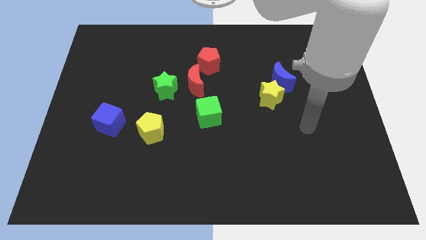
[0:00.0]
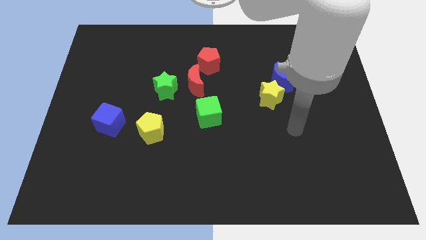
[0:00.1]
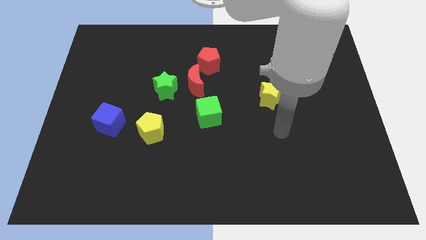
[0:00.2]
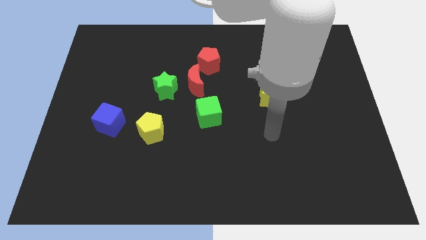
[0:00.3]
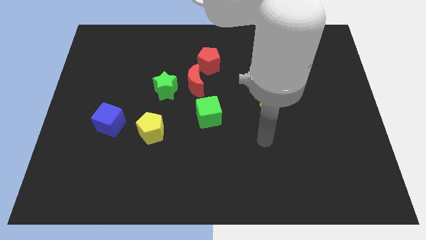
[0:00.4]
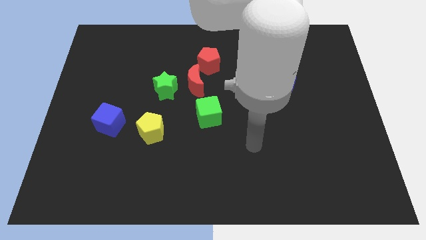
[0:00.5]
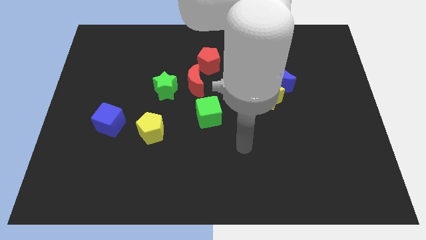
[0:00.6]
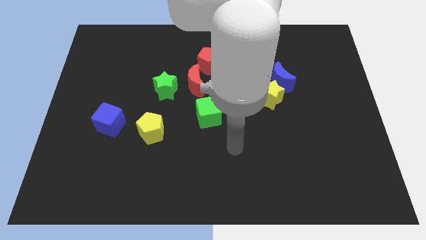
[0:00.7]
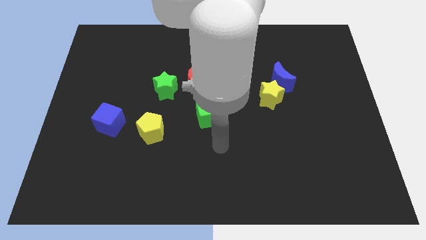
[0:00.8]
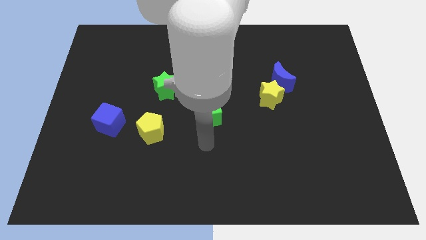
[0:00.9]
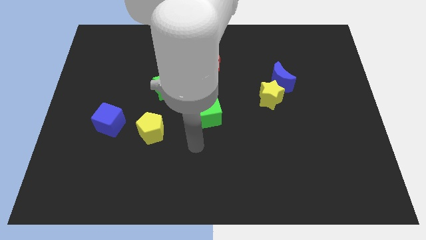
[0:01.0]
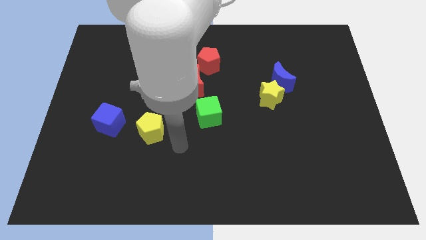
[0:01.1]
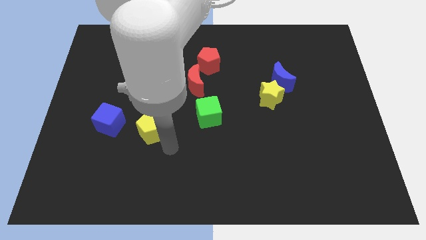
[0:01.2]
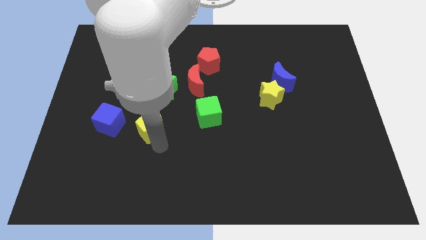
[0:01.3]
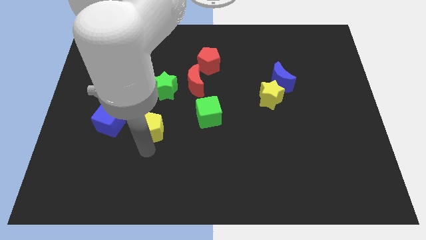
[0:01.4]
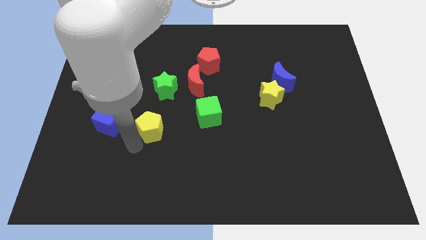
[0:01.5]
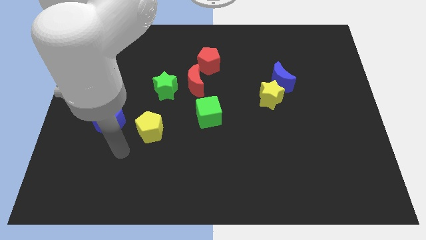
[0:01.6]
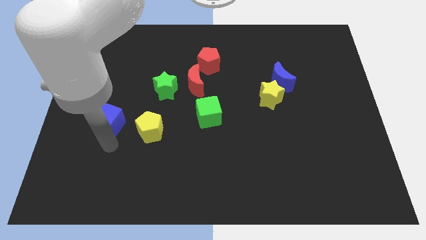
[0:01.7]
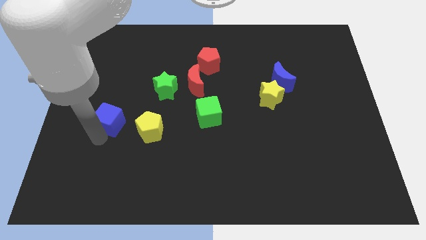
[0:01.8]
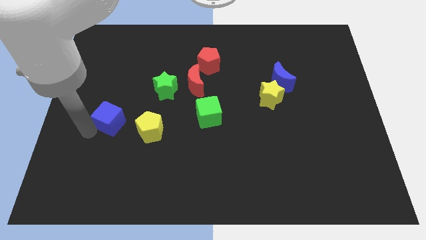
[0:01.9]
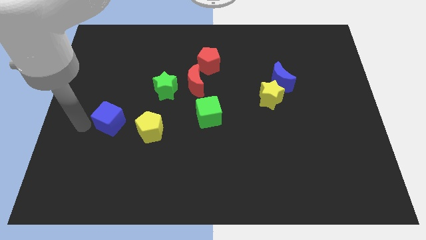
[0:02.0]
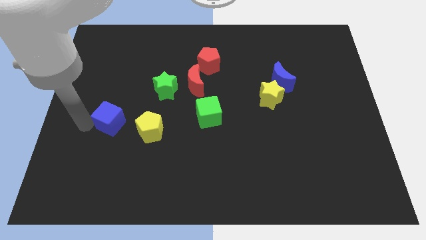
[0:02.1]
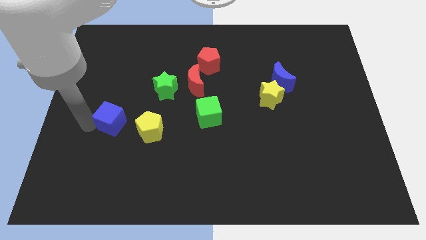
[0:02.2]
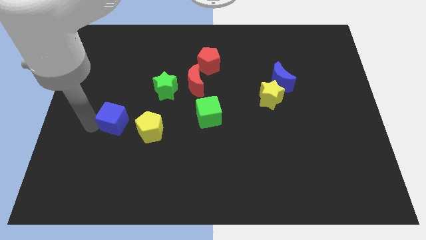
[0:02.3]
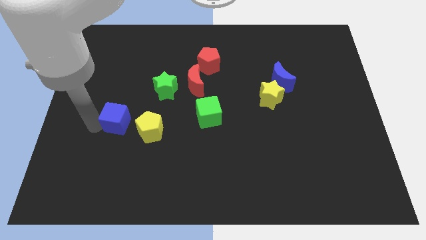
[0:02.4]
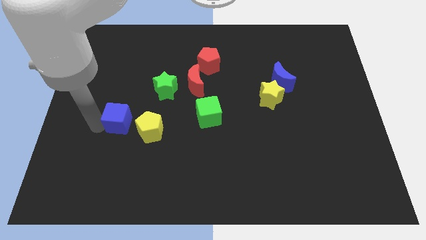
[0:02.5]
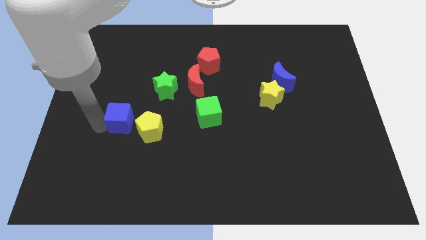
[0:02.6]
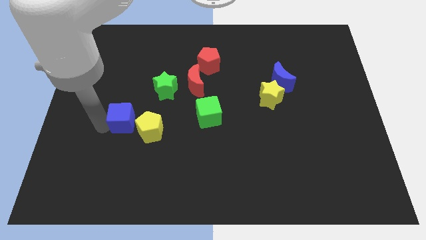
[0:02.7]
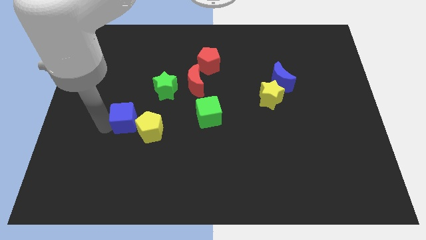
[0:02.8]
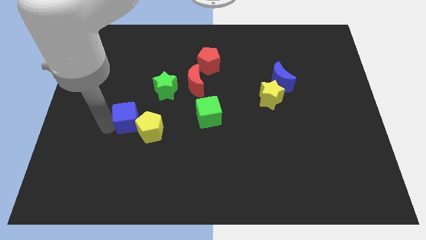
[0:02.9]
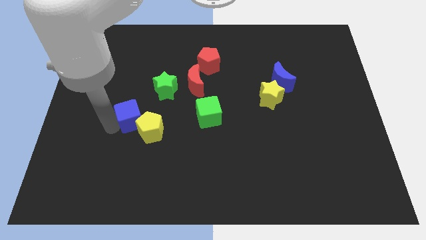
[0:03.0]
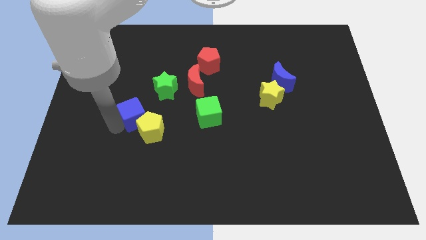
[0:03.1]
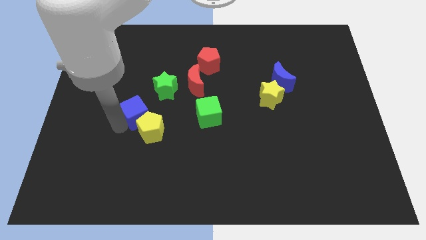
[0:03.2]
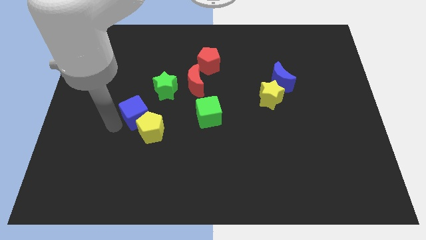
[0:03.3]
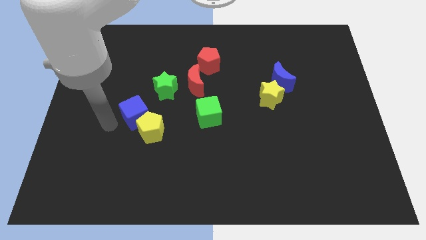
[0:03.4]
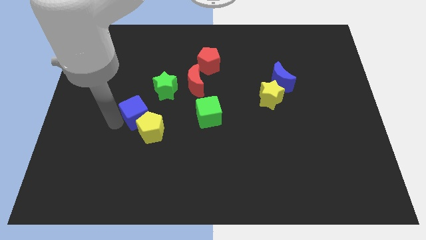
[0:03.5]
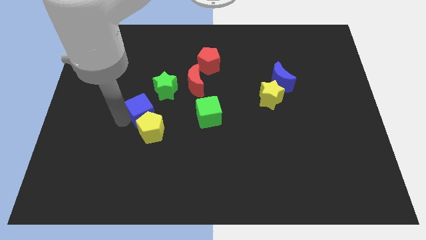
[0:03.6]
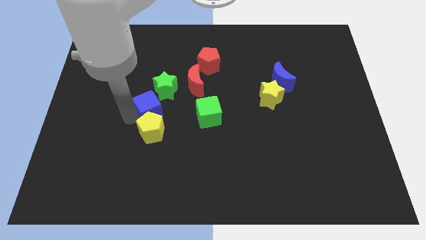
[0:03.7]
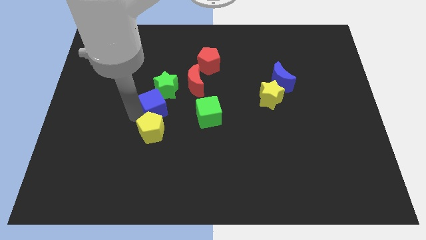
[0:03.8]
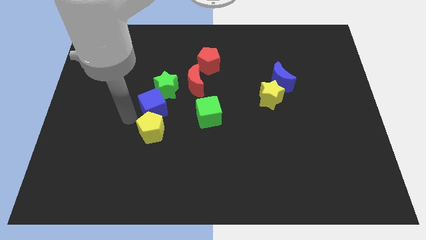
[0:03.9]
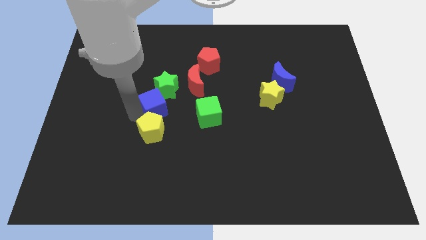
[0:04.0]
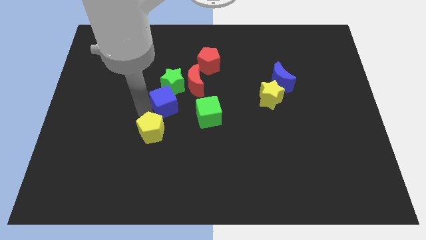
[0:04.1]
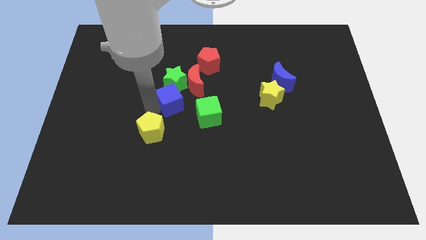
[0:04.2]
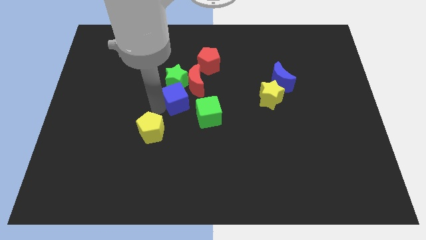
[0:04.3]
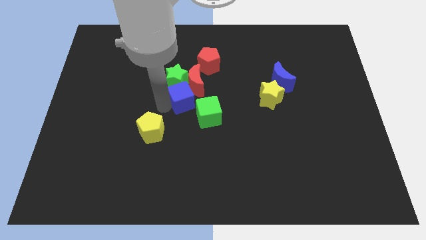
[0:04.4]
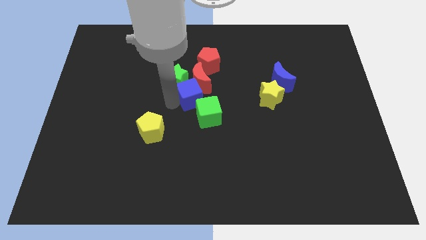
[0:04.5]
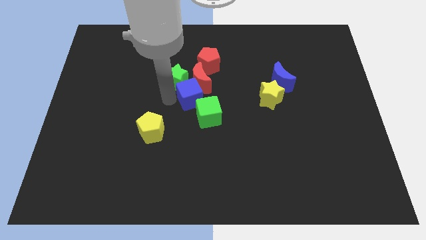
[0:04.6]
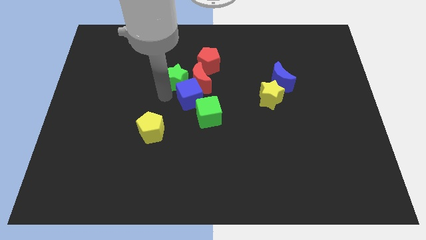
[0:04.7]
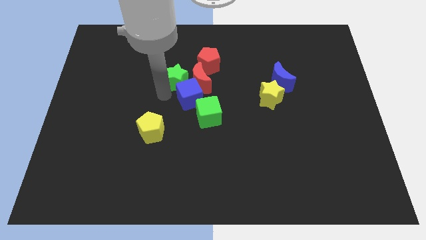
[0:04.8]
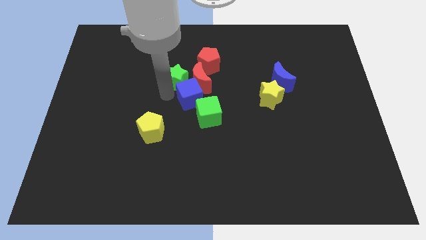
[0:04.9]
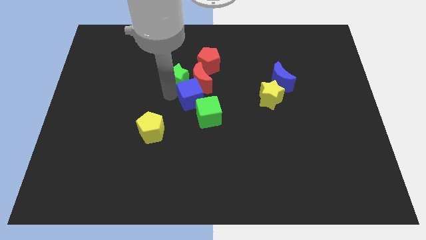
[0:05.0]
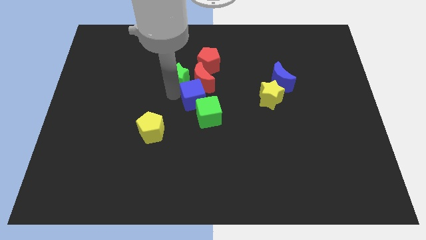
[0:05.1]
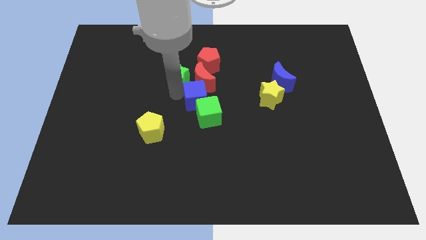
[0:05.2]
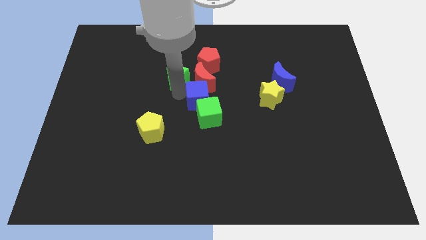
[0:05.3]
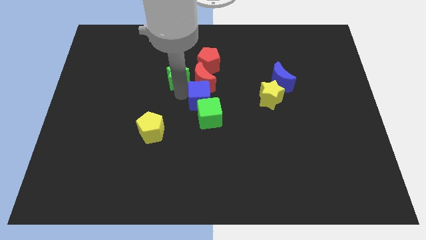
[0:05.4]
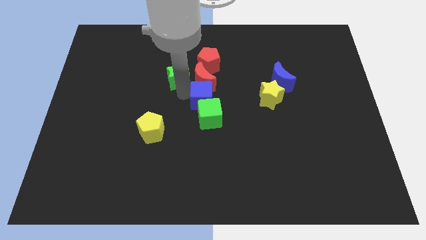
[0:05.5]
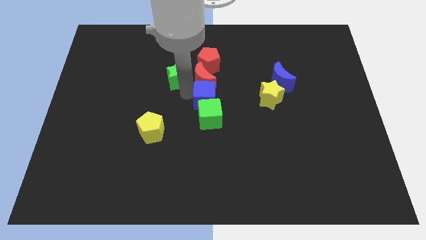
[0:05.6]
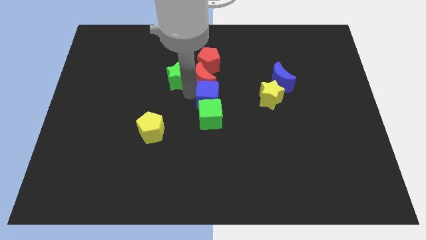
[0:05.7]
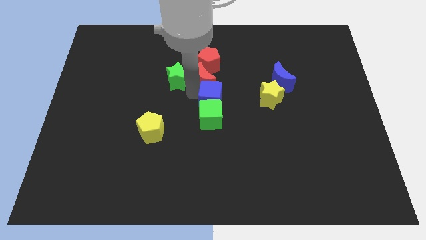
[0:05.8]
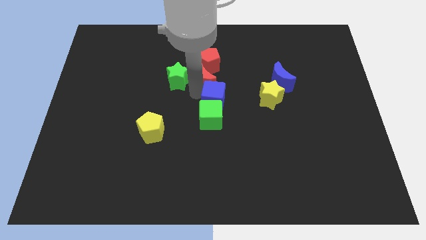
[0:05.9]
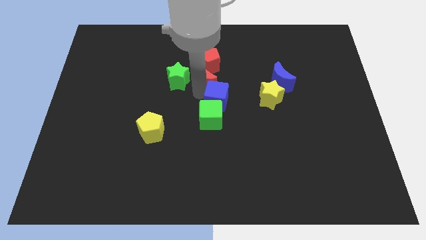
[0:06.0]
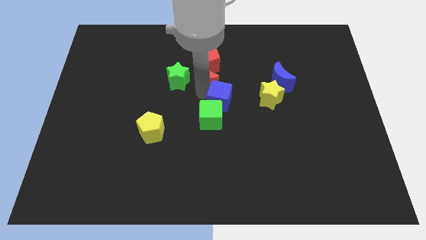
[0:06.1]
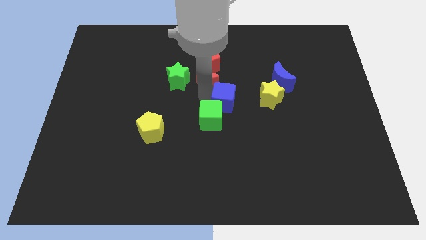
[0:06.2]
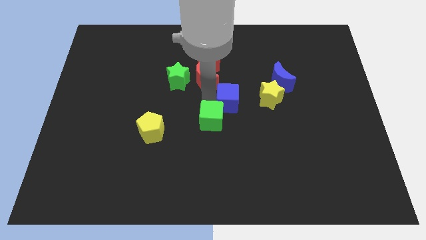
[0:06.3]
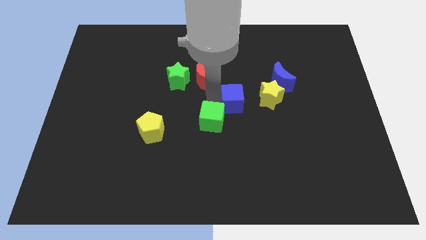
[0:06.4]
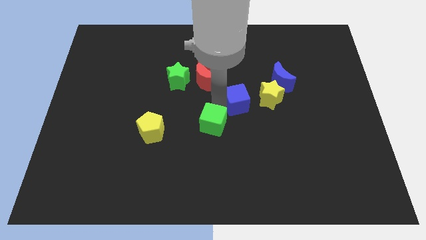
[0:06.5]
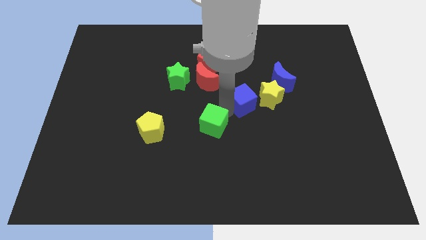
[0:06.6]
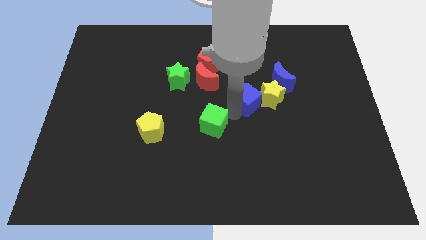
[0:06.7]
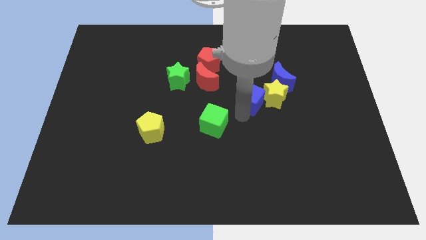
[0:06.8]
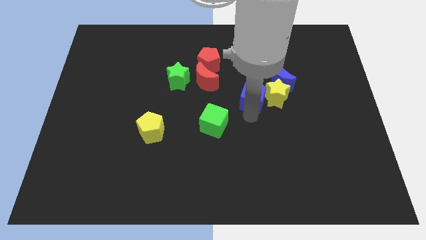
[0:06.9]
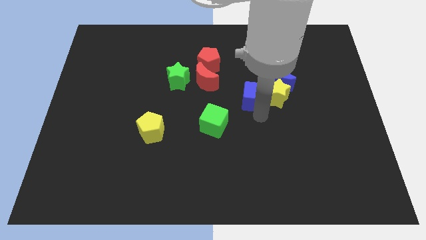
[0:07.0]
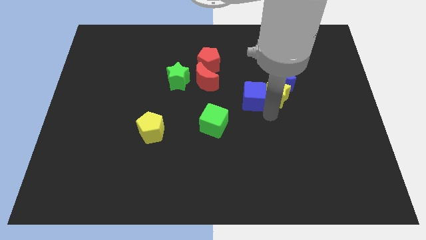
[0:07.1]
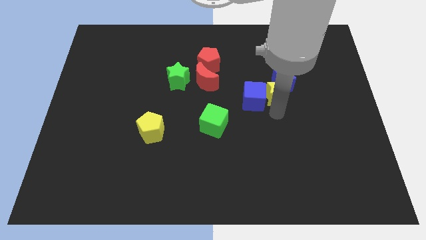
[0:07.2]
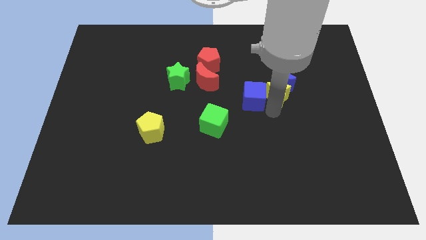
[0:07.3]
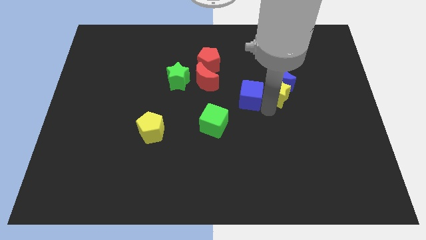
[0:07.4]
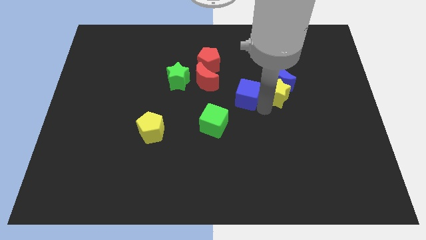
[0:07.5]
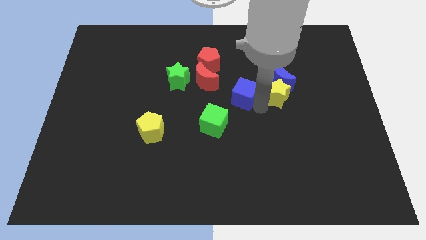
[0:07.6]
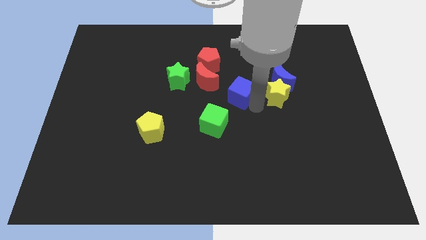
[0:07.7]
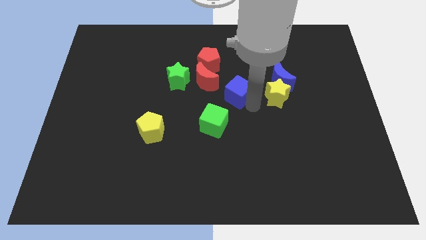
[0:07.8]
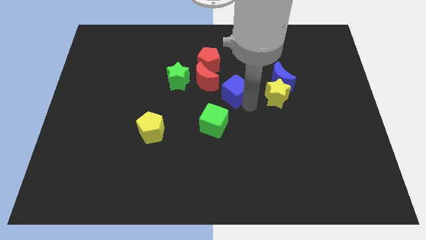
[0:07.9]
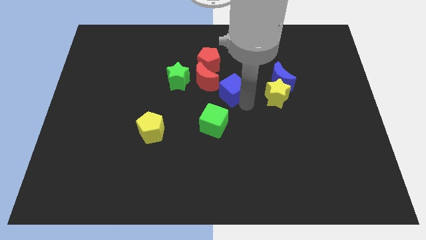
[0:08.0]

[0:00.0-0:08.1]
slide the blue cube to the right of the green star
